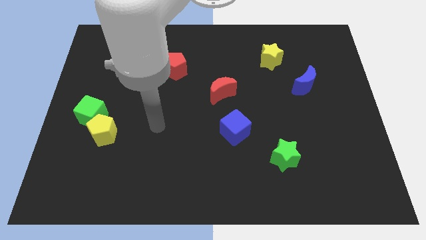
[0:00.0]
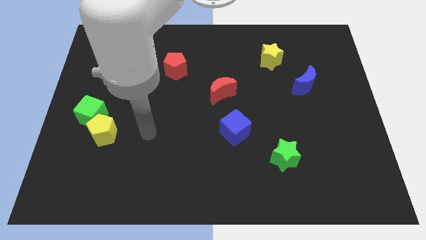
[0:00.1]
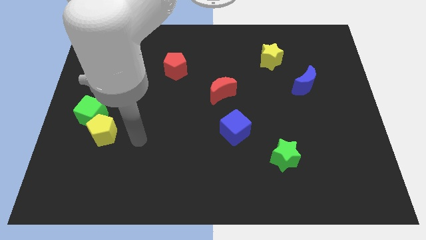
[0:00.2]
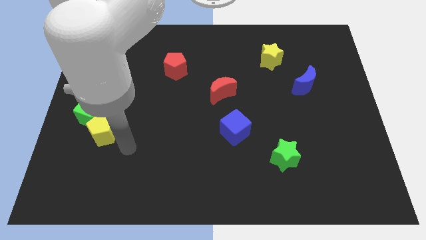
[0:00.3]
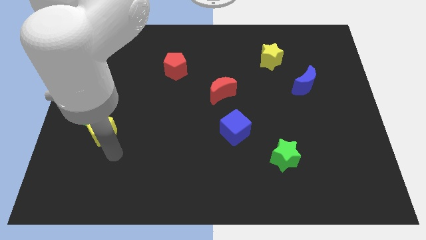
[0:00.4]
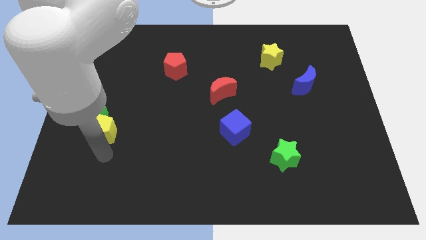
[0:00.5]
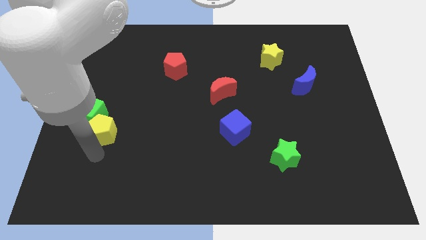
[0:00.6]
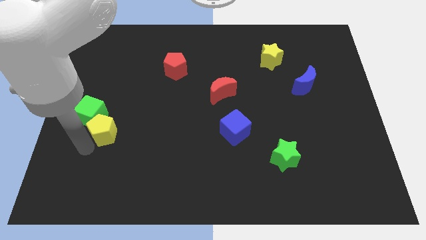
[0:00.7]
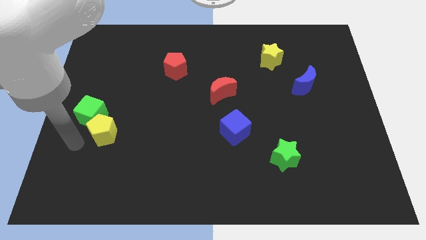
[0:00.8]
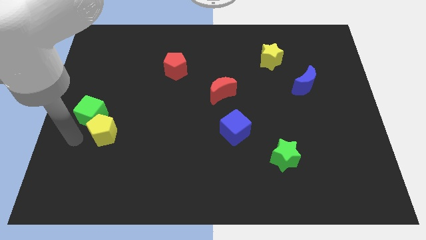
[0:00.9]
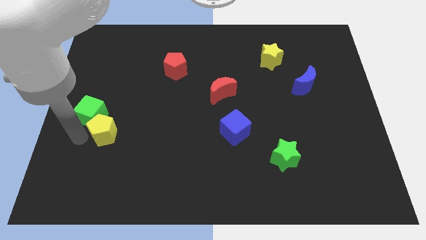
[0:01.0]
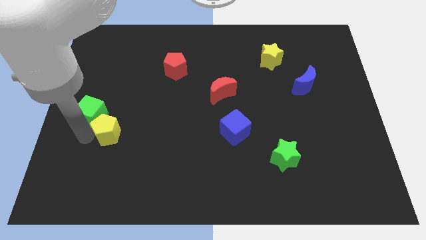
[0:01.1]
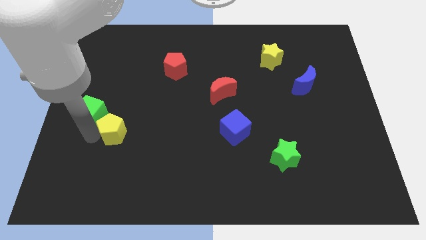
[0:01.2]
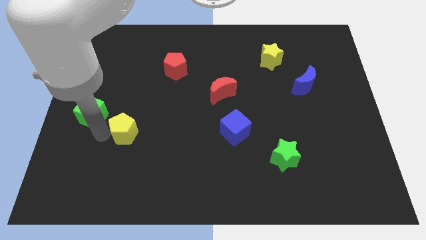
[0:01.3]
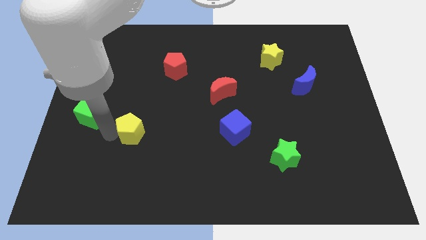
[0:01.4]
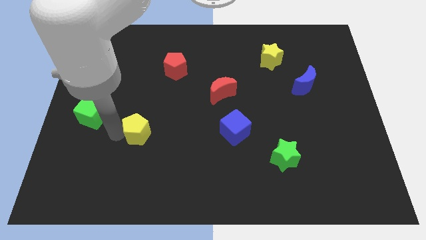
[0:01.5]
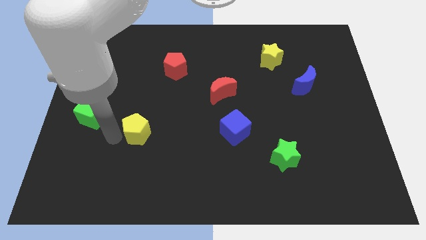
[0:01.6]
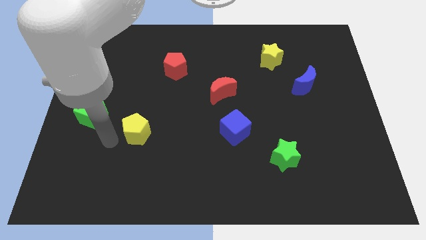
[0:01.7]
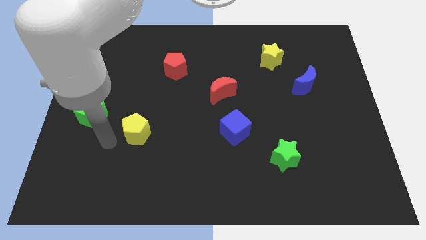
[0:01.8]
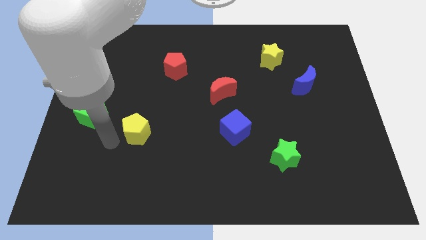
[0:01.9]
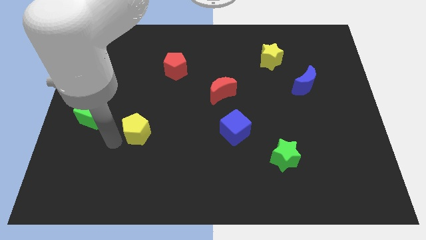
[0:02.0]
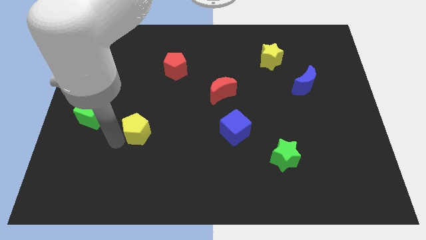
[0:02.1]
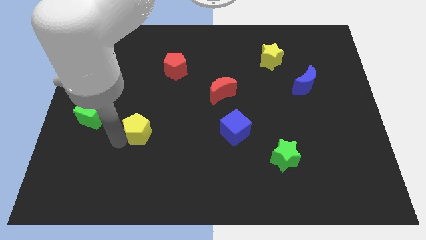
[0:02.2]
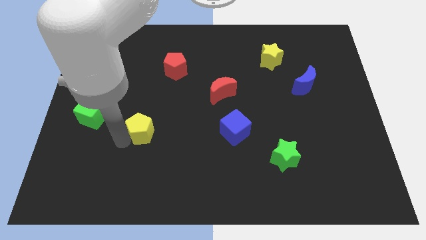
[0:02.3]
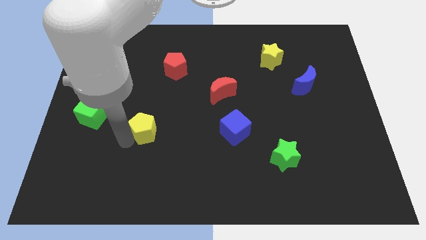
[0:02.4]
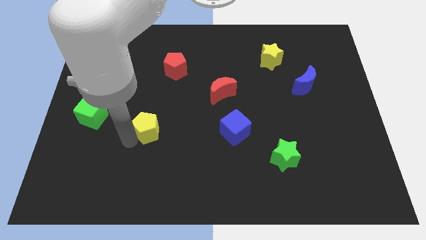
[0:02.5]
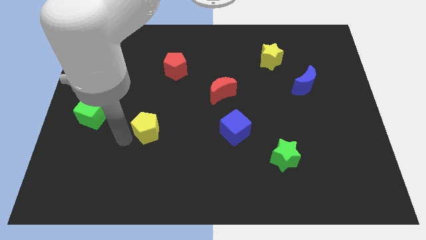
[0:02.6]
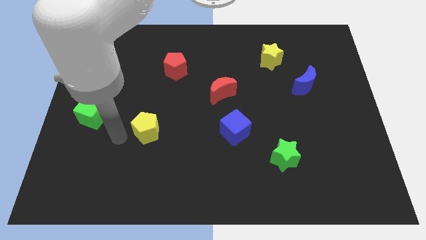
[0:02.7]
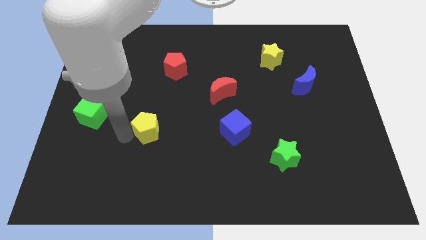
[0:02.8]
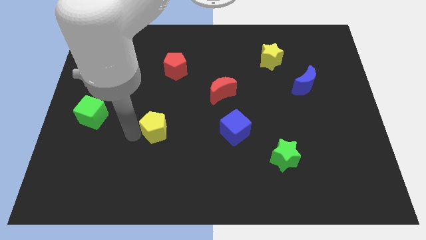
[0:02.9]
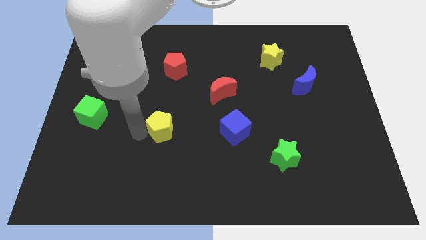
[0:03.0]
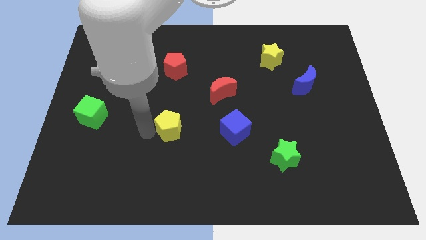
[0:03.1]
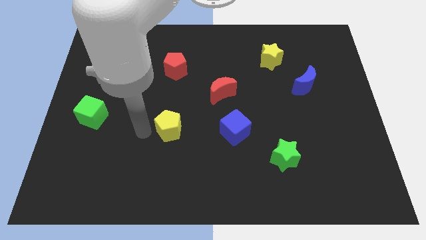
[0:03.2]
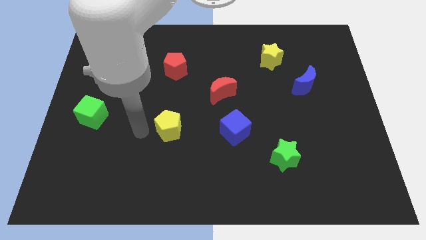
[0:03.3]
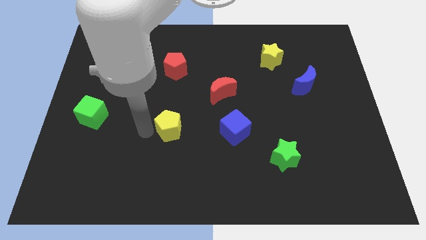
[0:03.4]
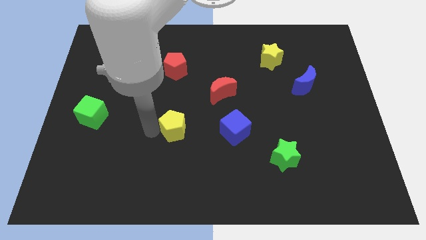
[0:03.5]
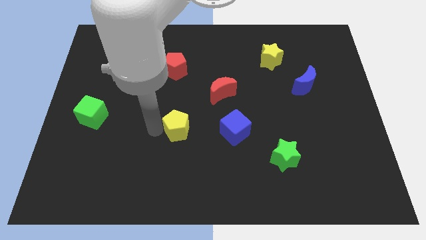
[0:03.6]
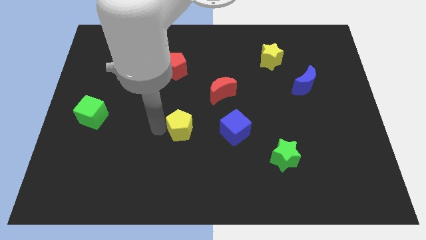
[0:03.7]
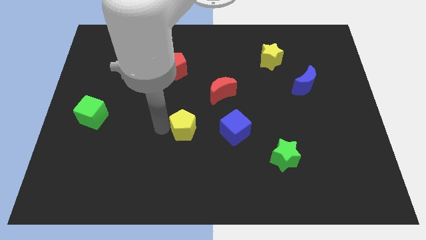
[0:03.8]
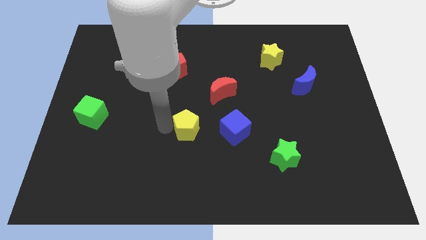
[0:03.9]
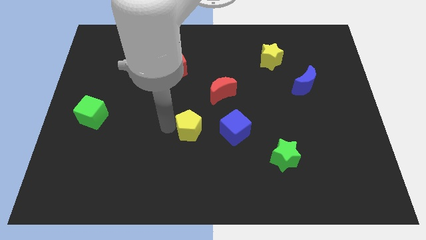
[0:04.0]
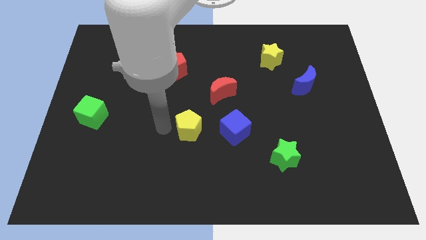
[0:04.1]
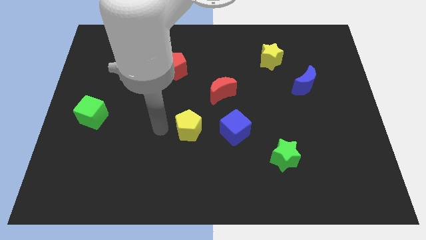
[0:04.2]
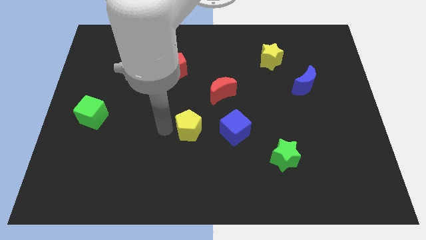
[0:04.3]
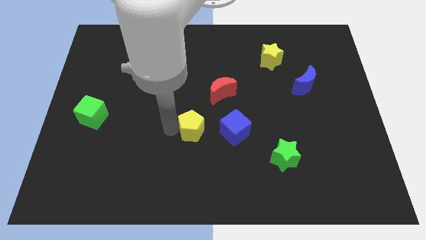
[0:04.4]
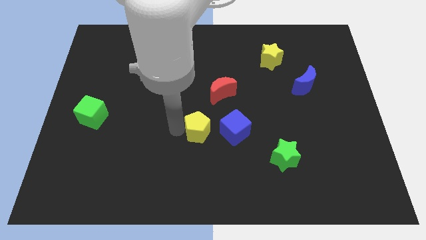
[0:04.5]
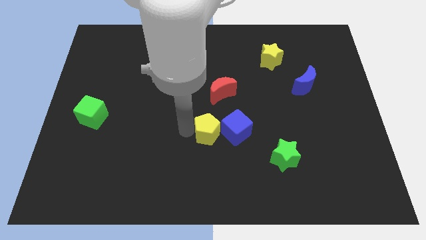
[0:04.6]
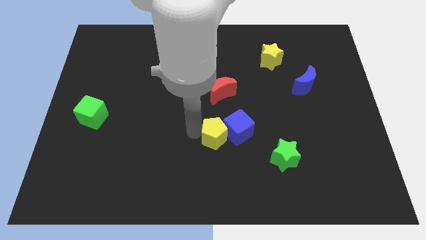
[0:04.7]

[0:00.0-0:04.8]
move the yellow pentagon to the blue cube

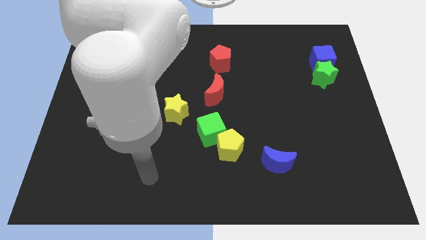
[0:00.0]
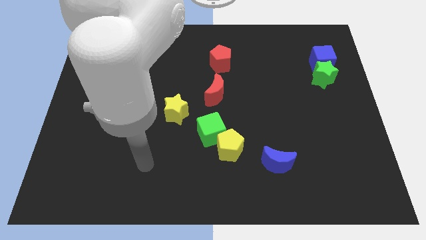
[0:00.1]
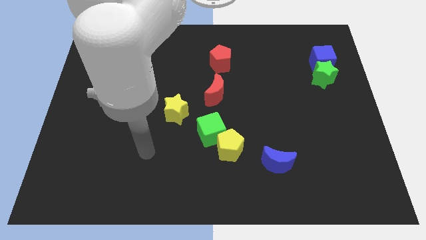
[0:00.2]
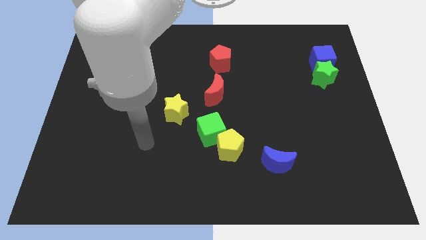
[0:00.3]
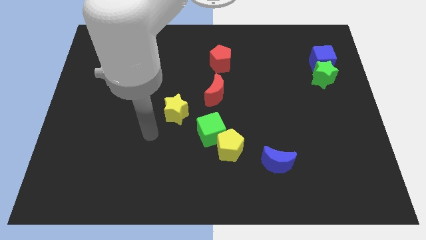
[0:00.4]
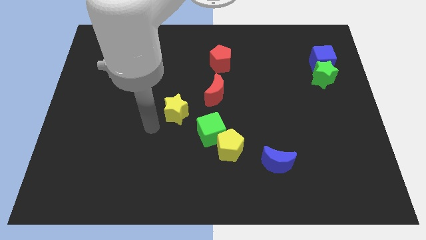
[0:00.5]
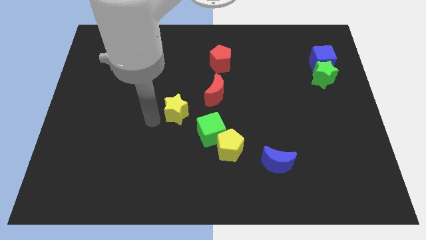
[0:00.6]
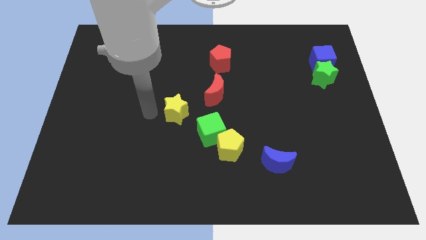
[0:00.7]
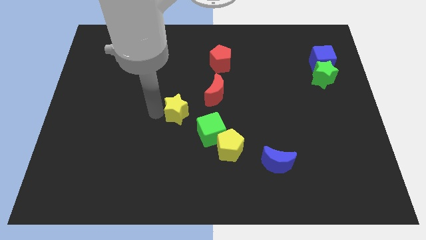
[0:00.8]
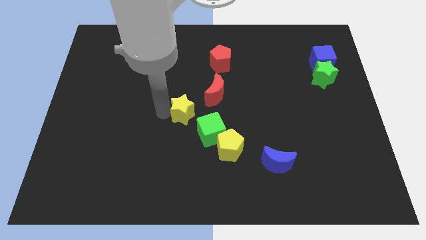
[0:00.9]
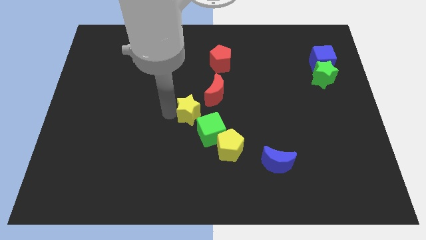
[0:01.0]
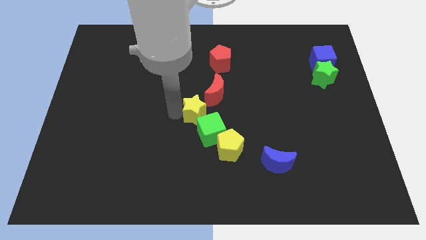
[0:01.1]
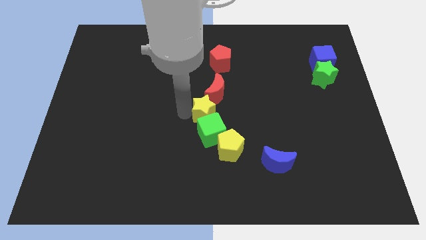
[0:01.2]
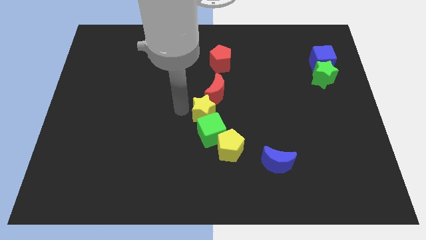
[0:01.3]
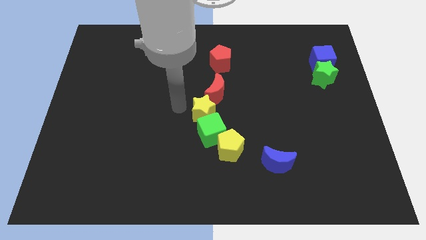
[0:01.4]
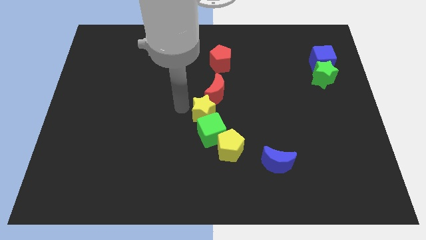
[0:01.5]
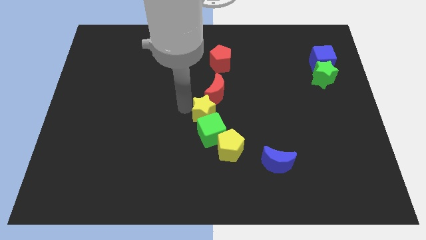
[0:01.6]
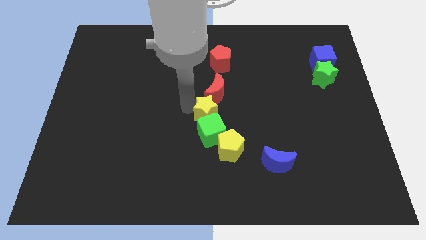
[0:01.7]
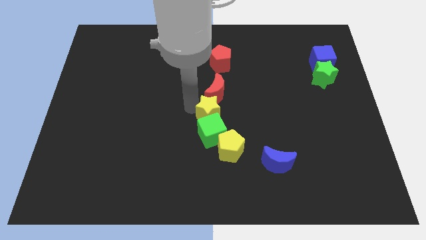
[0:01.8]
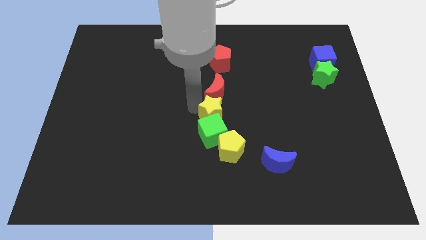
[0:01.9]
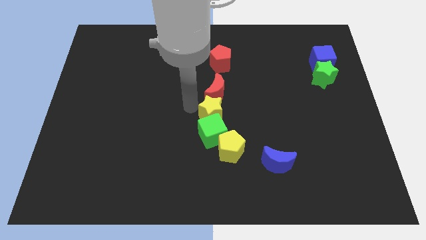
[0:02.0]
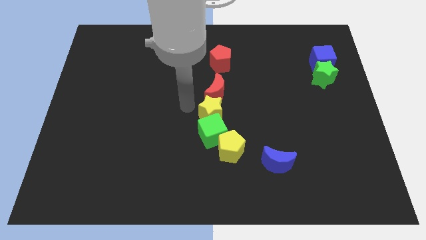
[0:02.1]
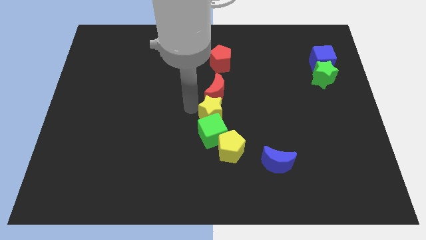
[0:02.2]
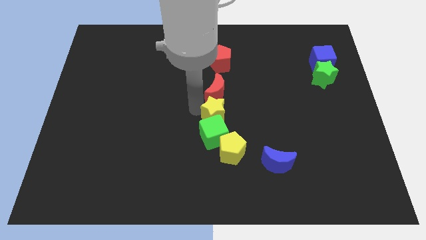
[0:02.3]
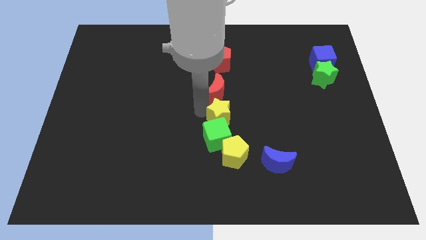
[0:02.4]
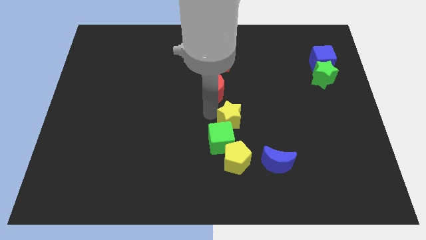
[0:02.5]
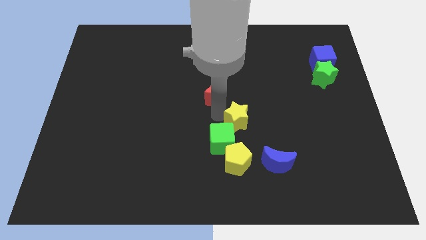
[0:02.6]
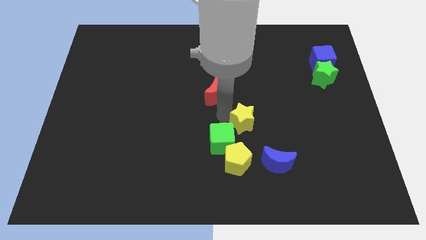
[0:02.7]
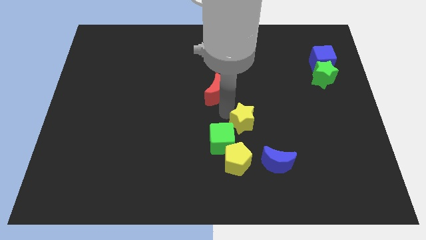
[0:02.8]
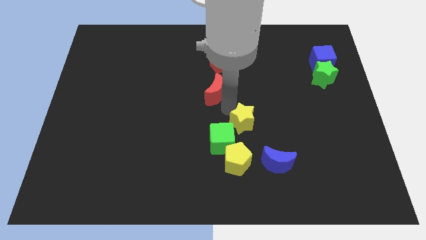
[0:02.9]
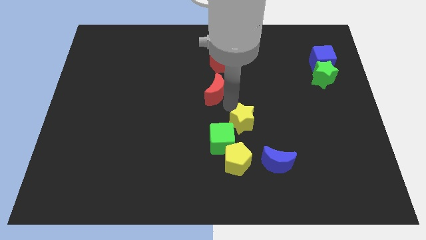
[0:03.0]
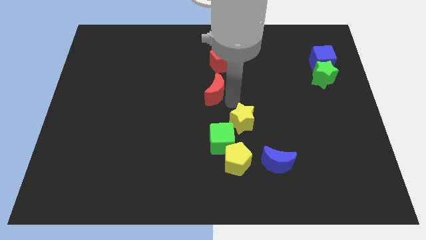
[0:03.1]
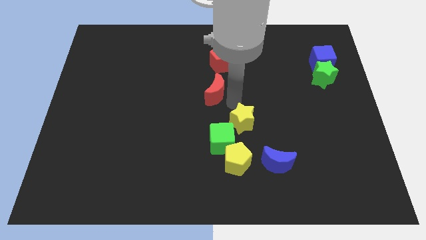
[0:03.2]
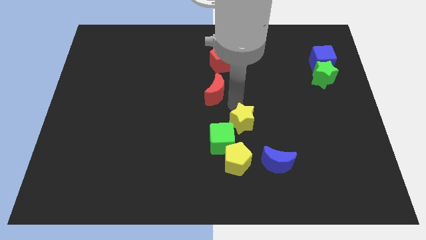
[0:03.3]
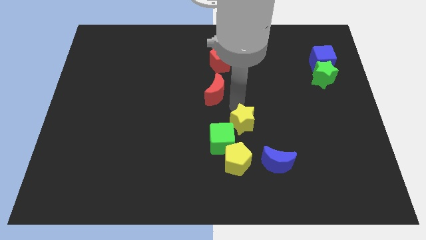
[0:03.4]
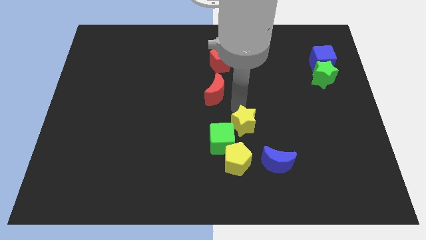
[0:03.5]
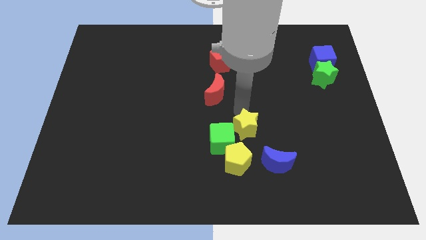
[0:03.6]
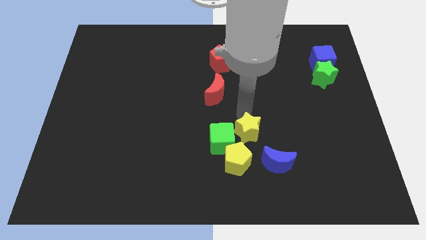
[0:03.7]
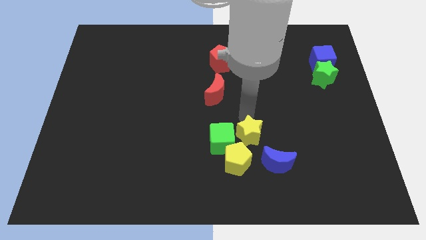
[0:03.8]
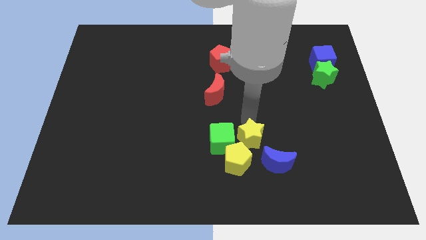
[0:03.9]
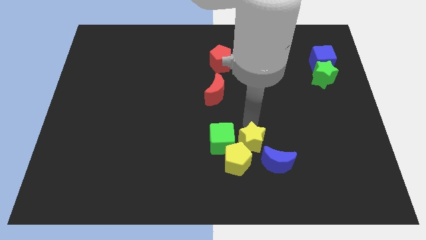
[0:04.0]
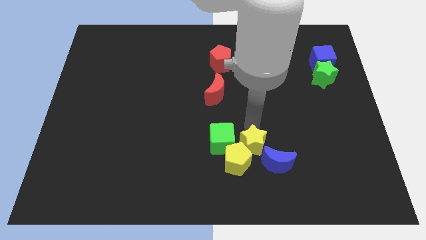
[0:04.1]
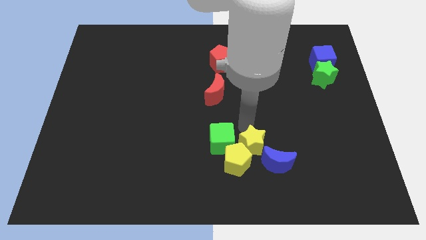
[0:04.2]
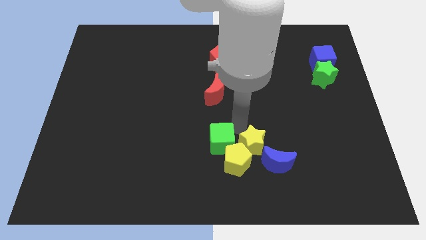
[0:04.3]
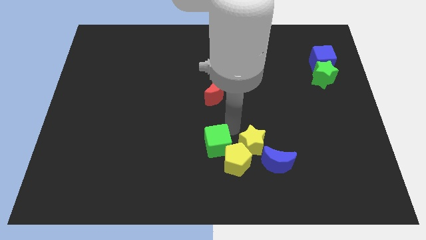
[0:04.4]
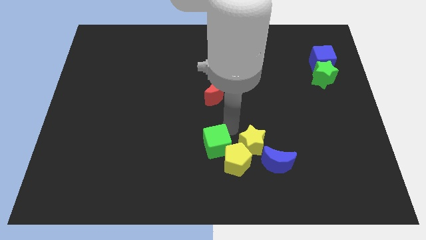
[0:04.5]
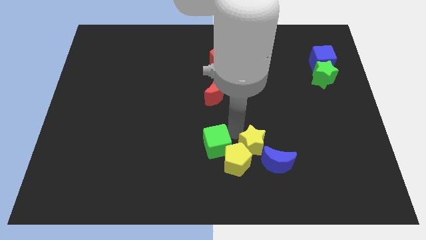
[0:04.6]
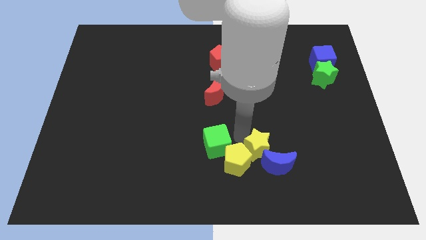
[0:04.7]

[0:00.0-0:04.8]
move the yellow star next to the blue moon
